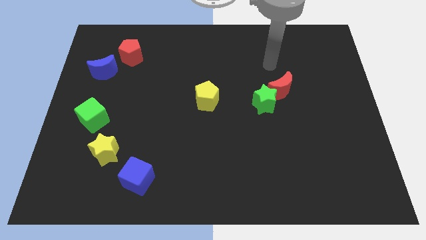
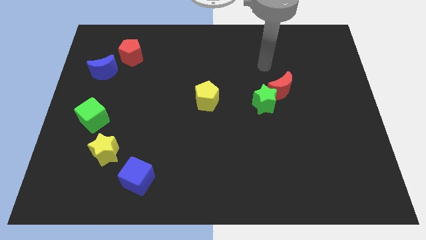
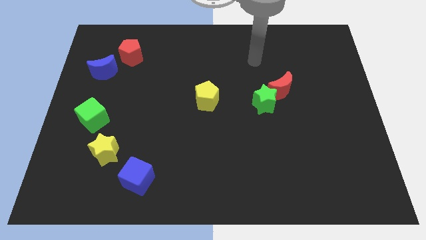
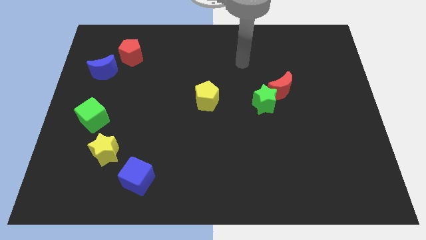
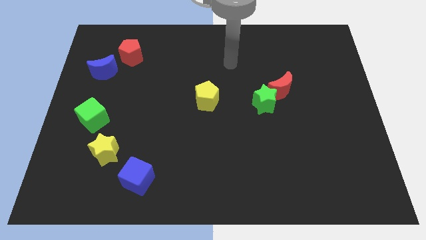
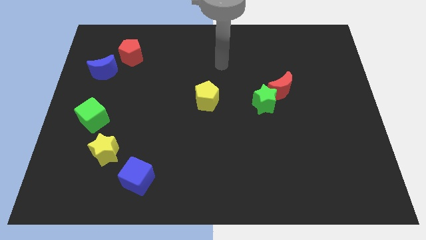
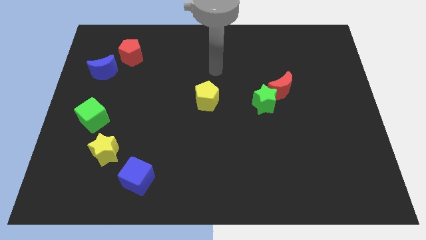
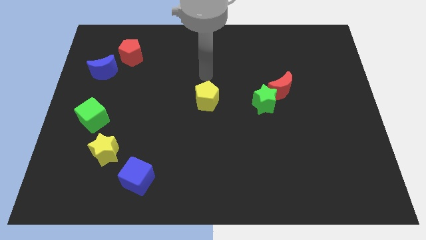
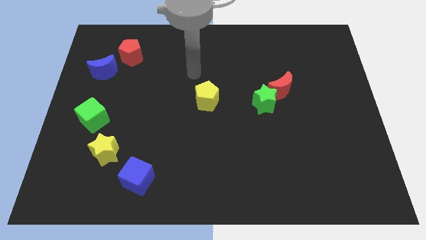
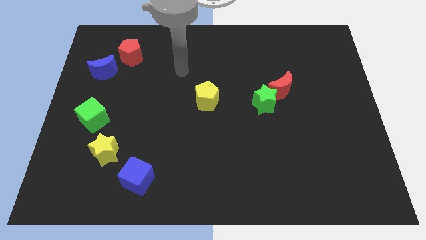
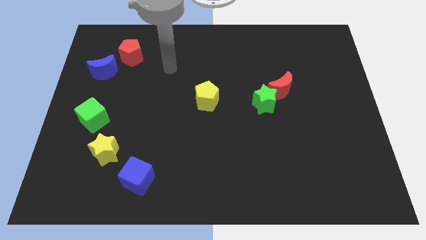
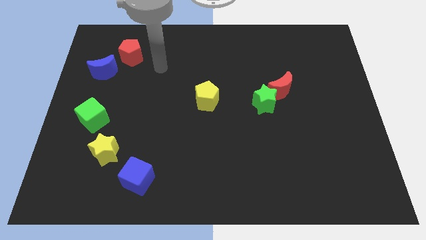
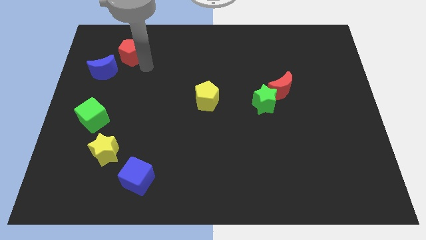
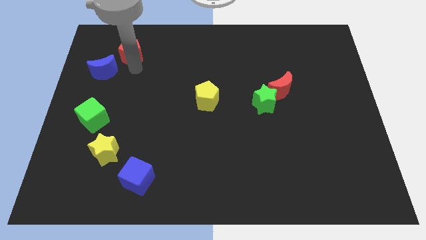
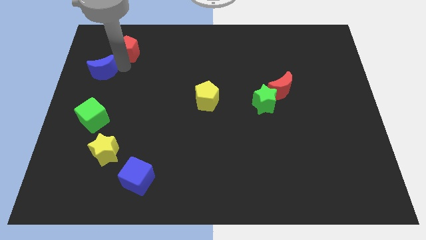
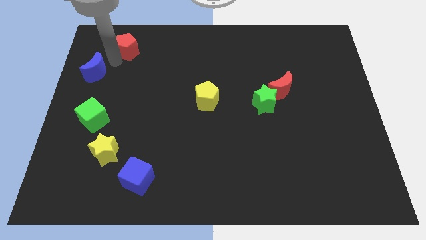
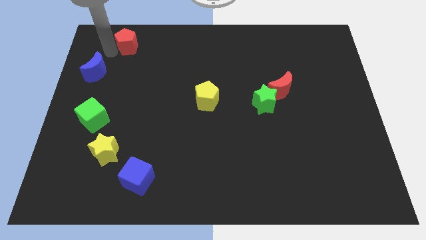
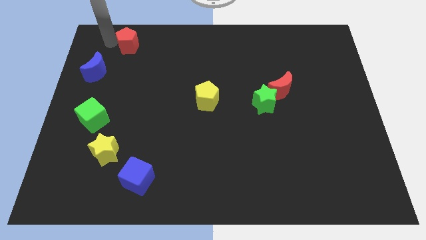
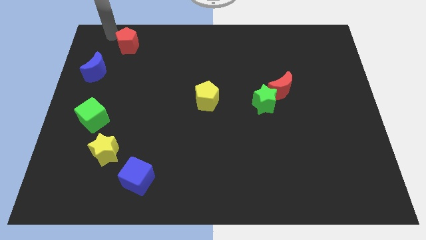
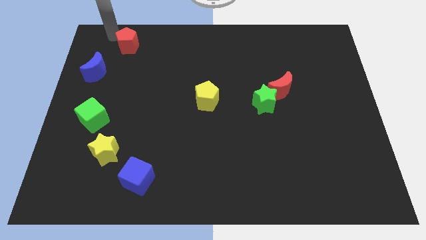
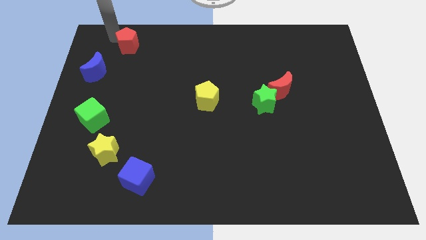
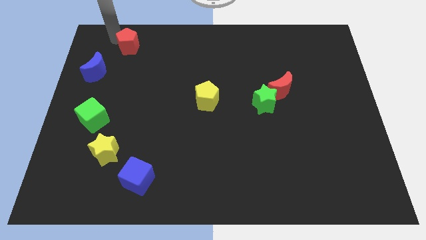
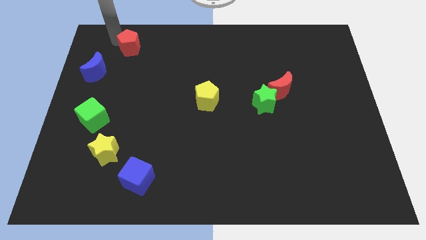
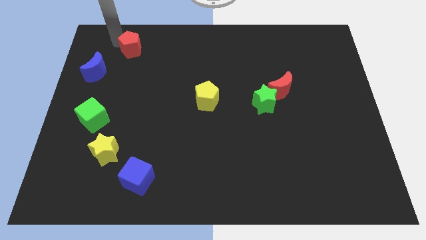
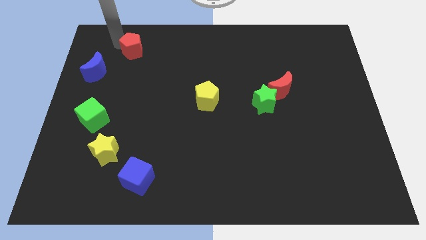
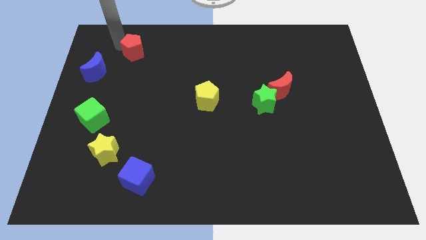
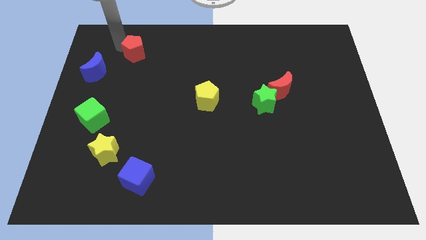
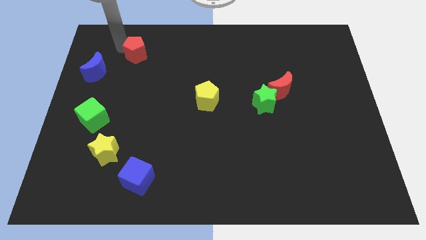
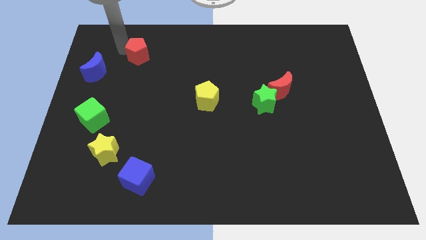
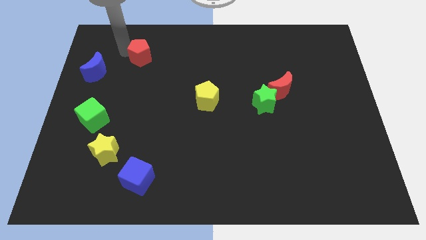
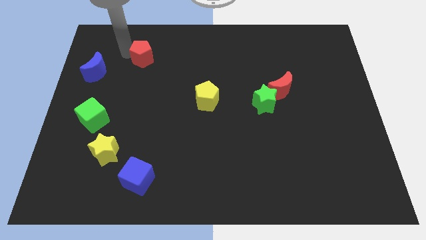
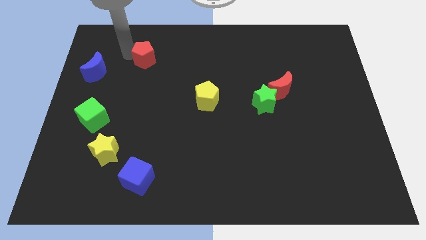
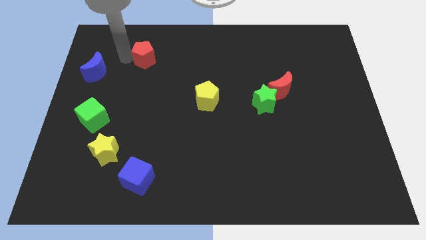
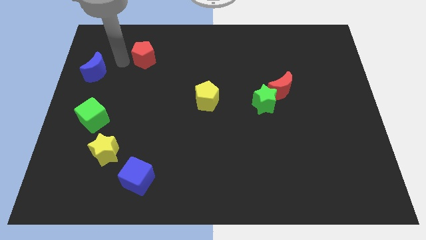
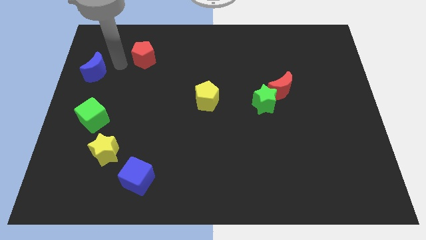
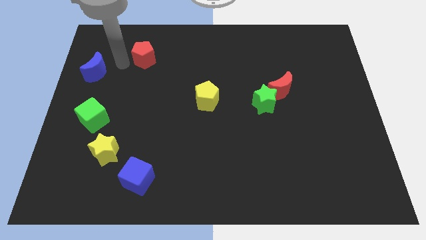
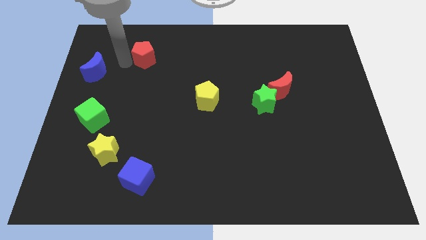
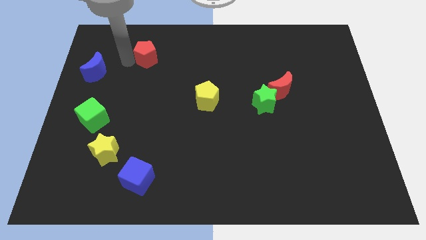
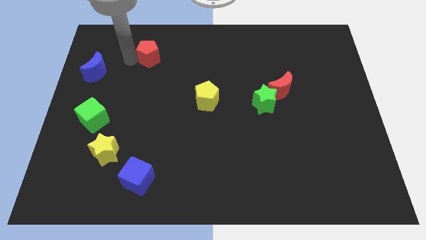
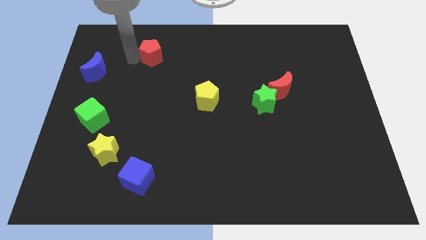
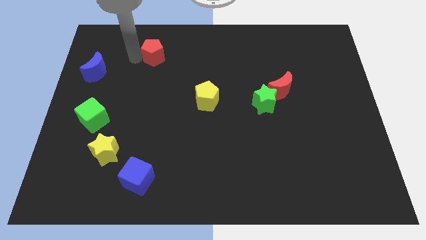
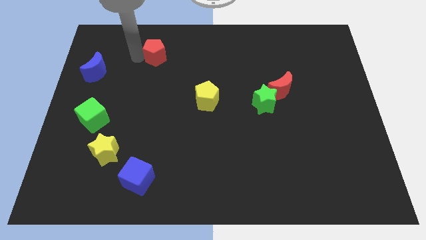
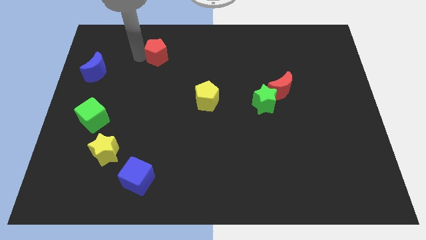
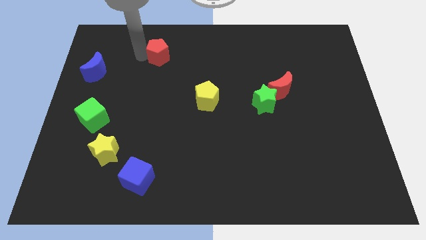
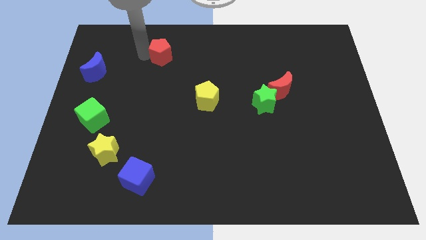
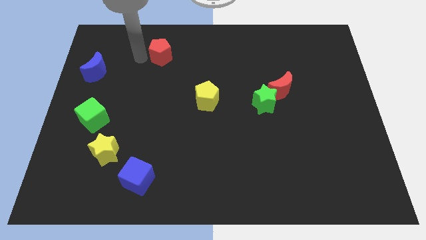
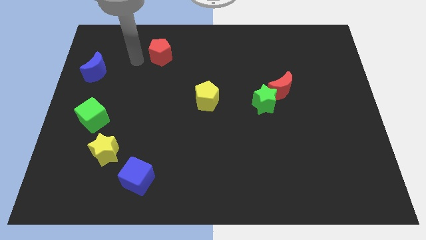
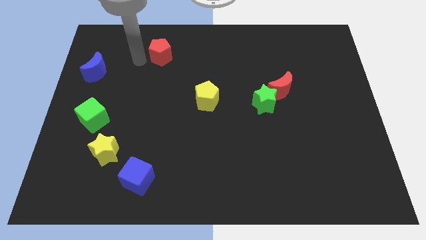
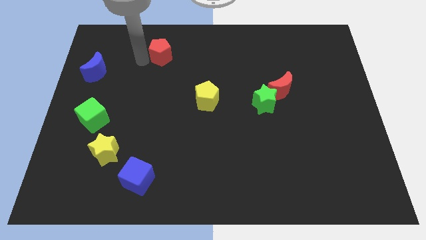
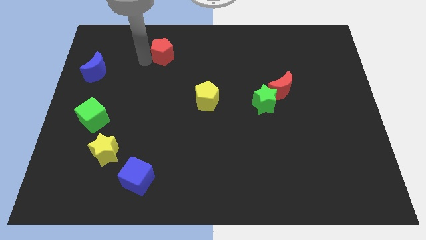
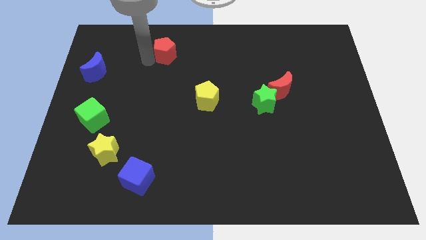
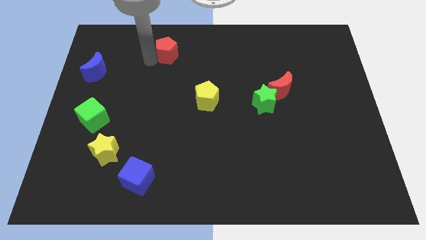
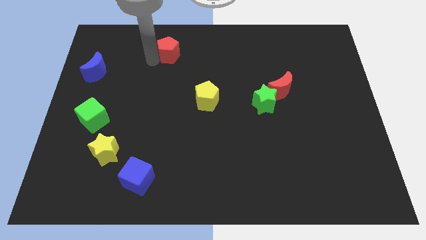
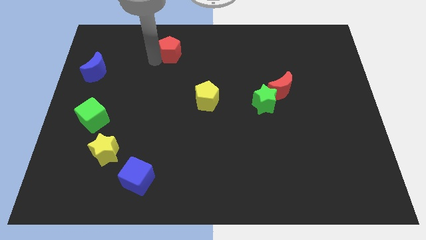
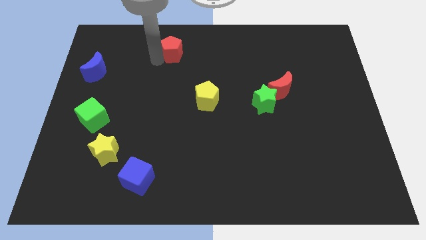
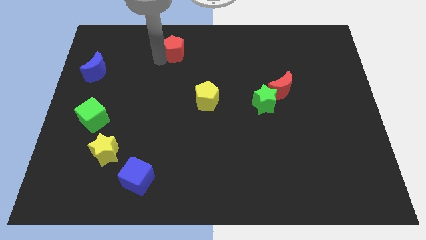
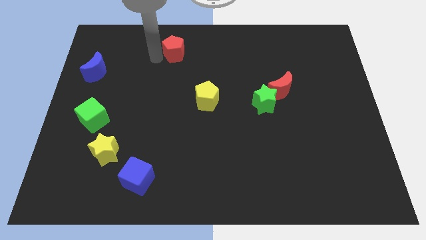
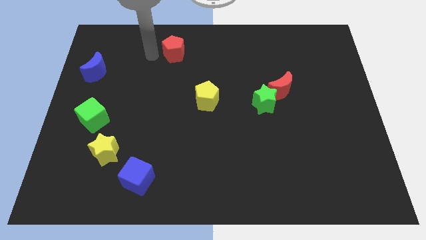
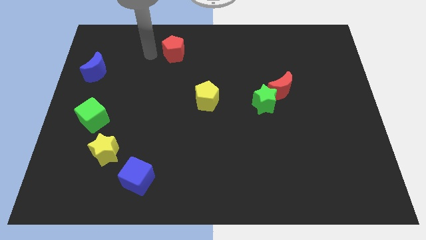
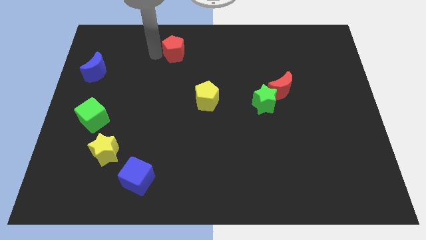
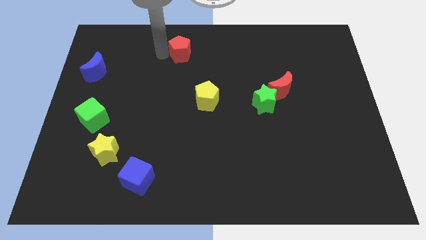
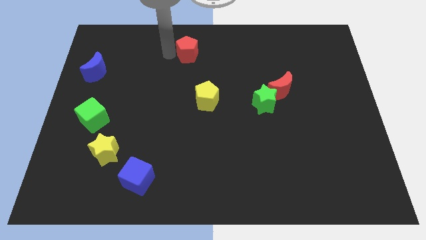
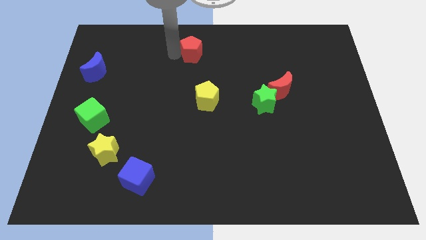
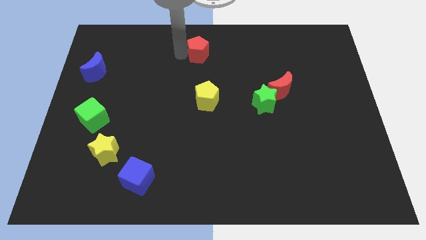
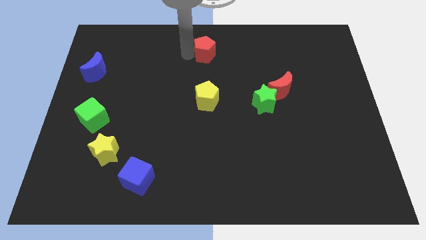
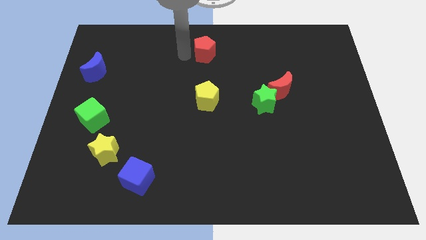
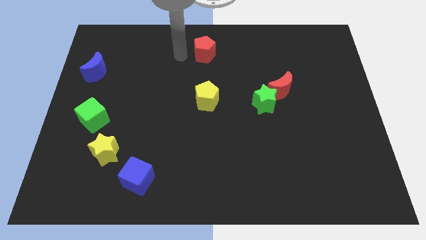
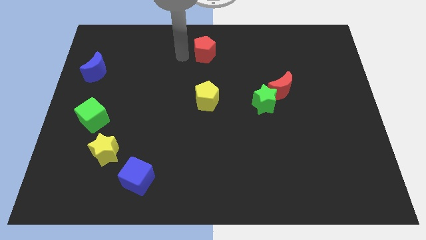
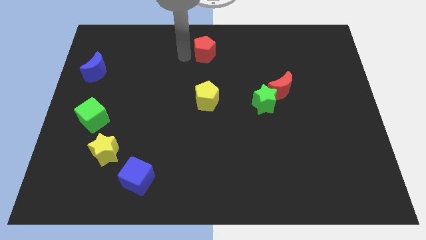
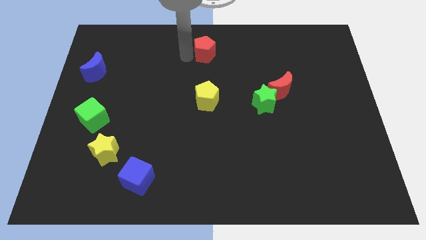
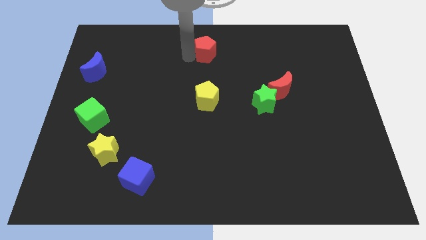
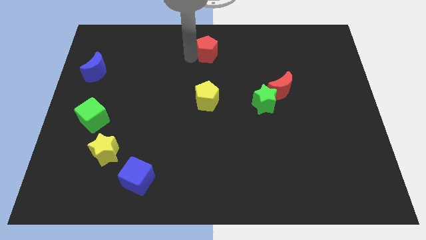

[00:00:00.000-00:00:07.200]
push the red pentagon to the right

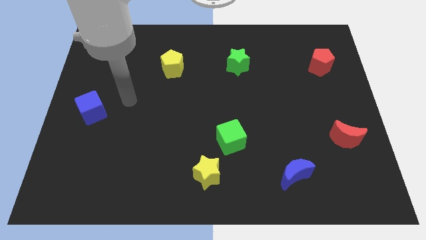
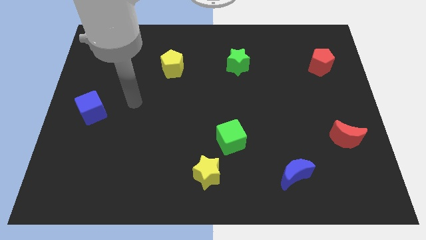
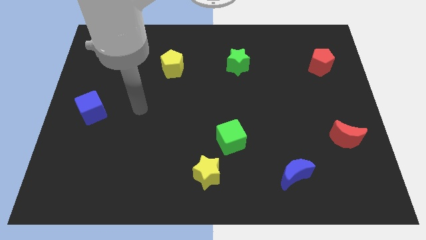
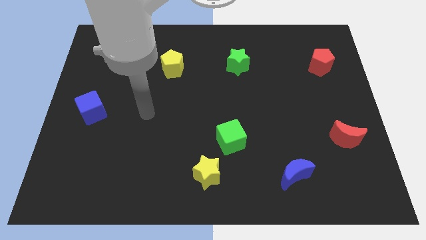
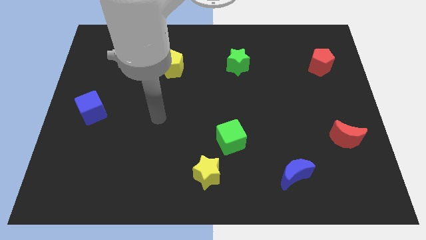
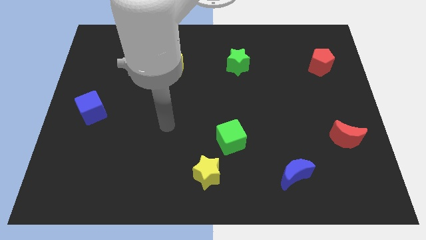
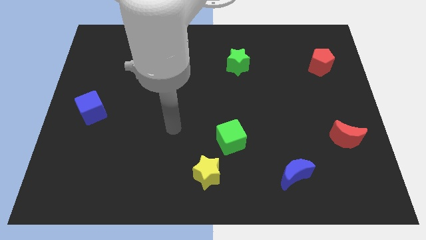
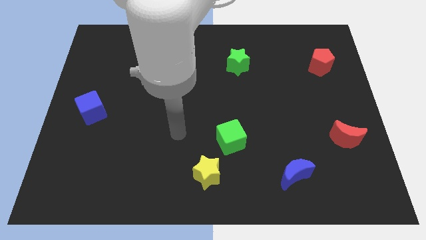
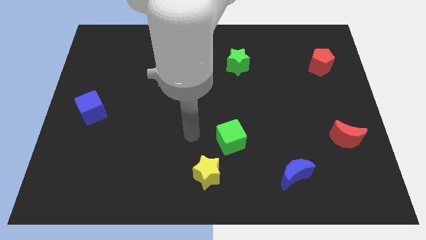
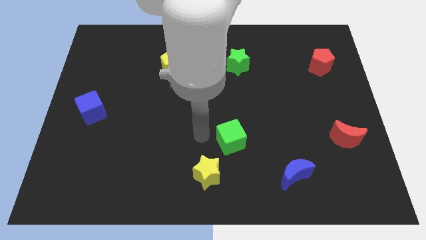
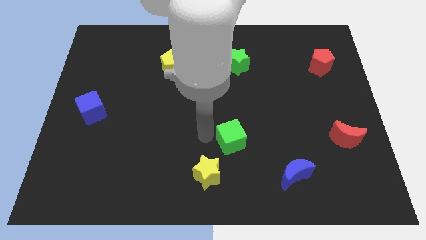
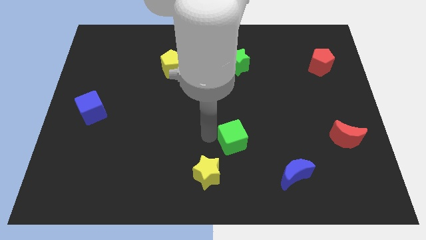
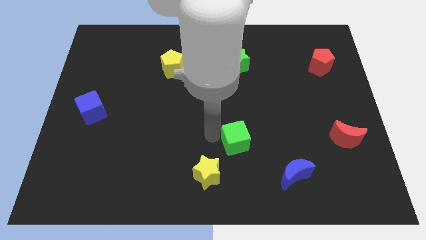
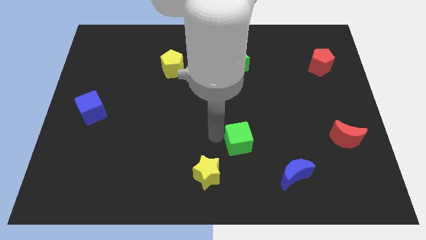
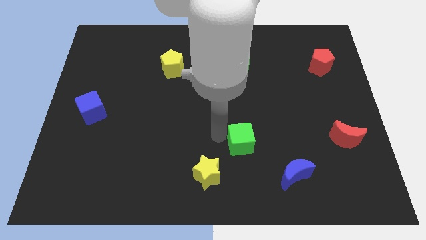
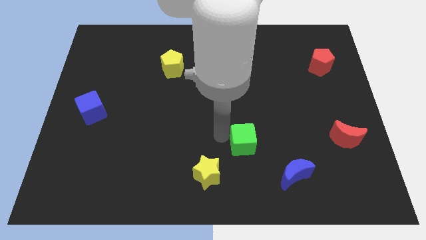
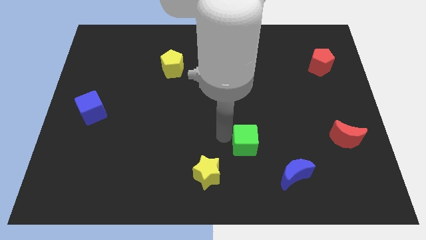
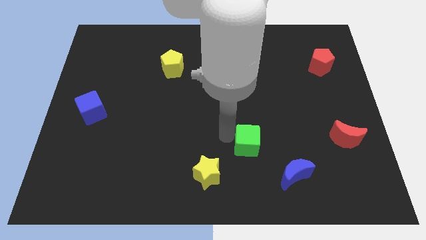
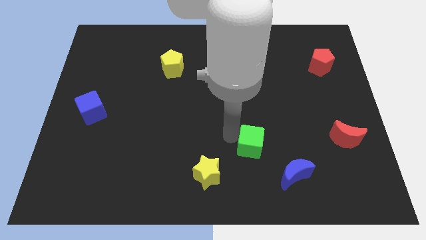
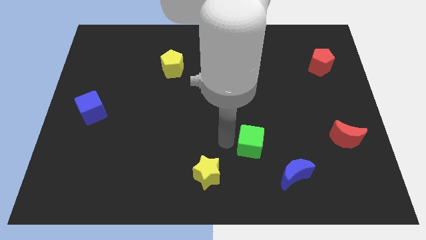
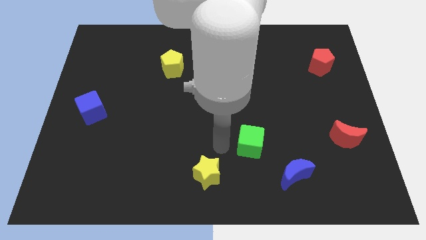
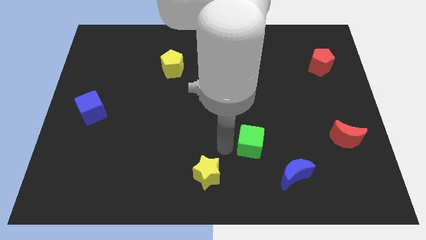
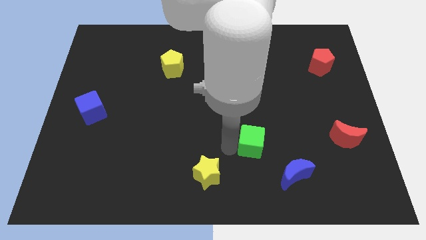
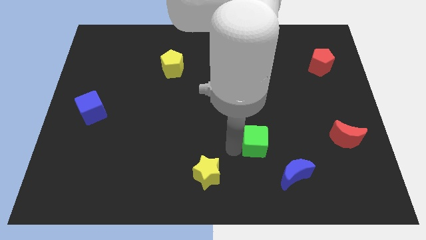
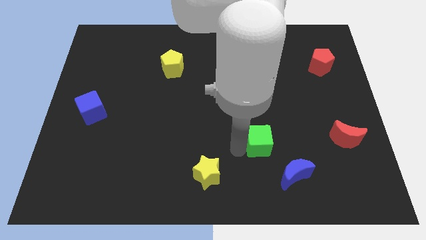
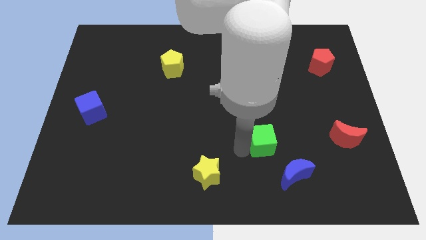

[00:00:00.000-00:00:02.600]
slightly slide the green cube to the right
